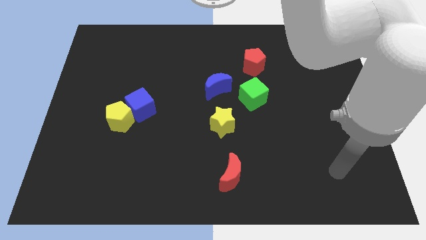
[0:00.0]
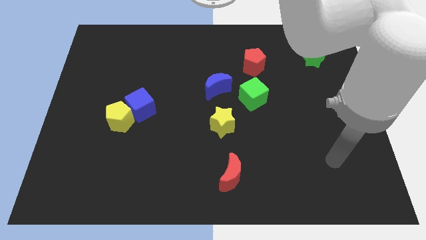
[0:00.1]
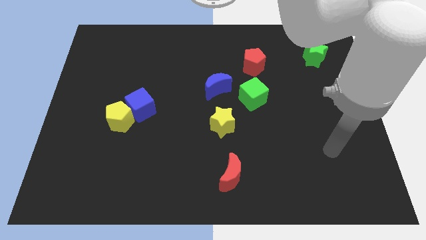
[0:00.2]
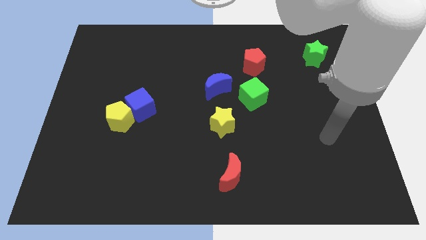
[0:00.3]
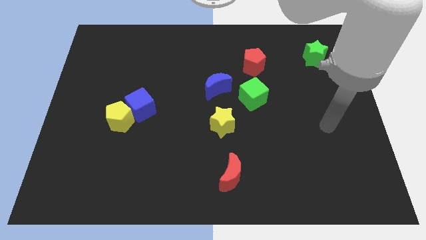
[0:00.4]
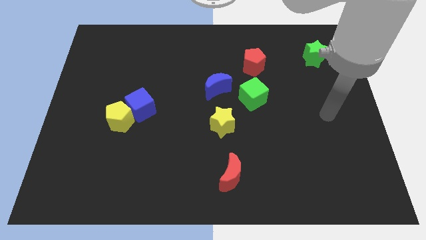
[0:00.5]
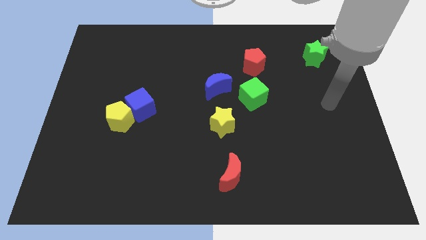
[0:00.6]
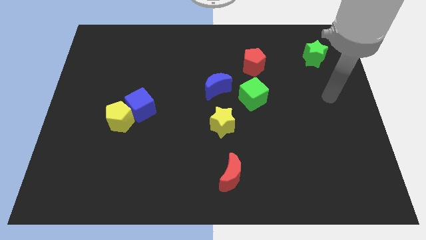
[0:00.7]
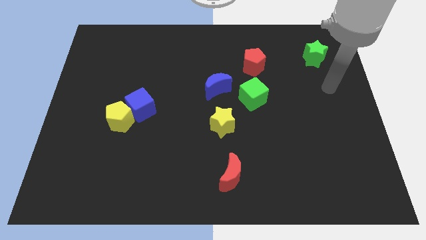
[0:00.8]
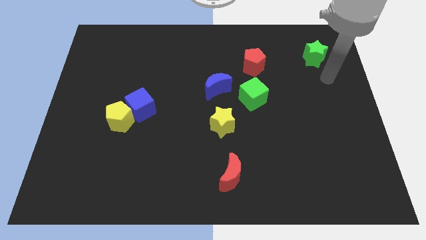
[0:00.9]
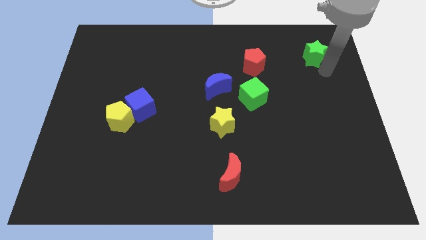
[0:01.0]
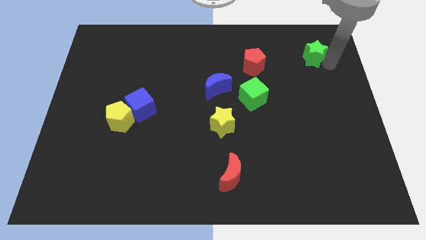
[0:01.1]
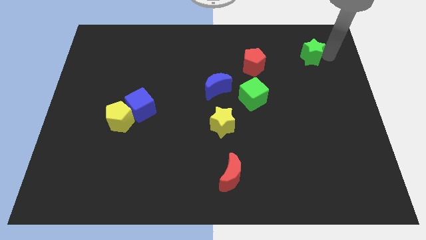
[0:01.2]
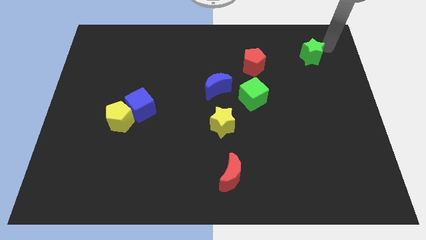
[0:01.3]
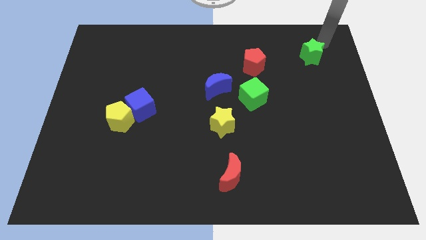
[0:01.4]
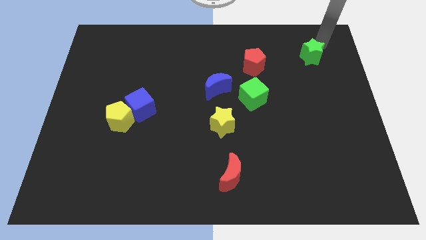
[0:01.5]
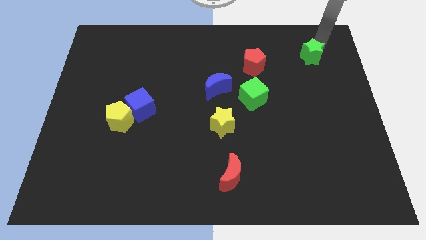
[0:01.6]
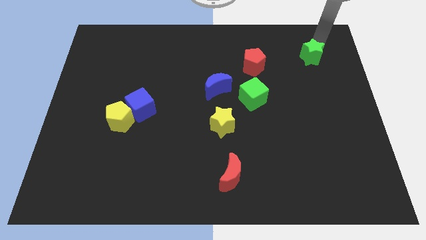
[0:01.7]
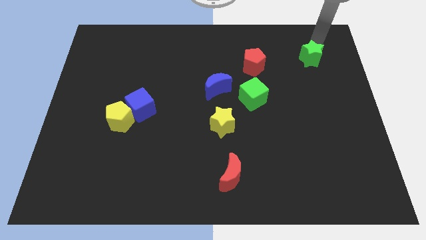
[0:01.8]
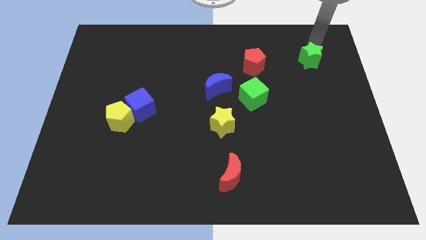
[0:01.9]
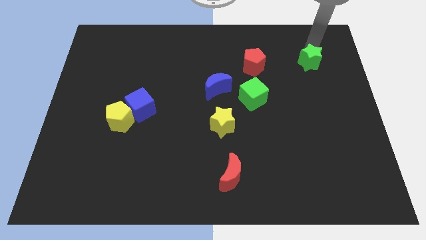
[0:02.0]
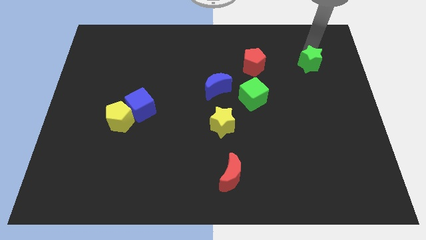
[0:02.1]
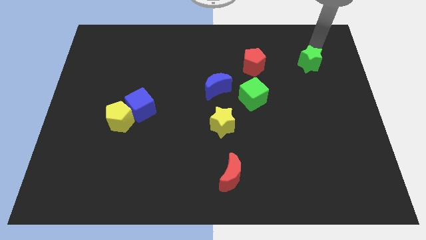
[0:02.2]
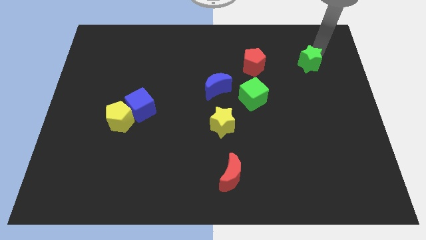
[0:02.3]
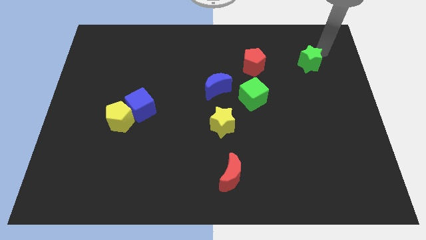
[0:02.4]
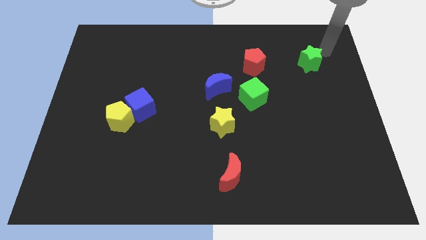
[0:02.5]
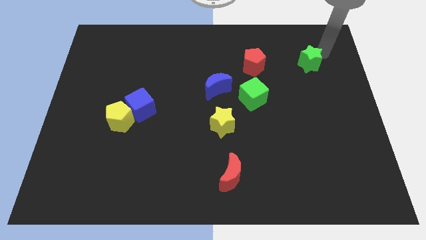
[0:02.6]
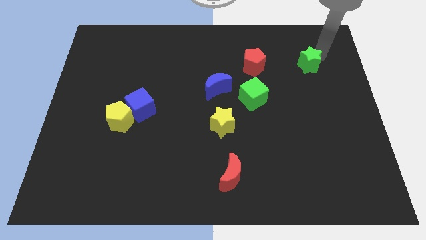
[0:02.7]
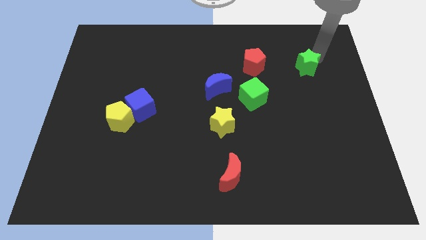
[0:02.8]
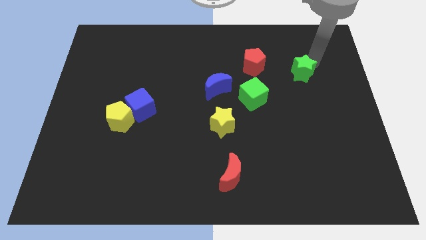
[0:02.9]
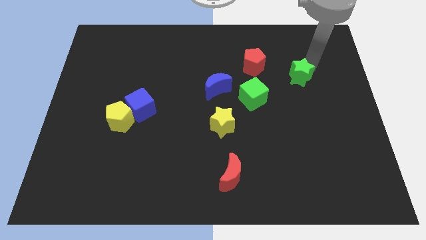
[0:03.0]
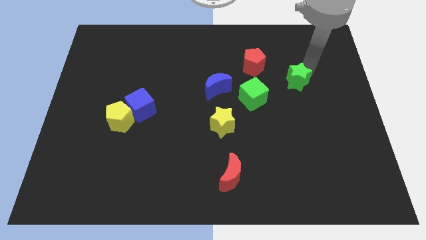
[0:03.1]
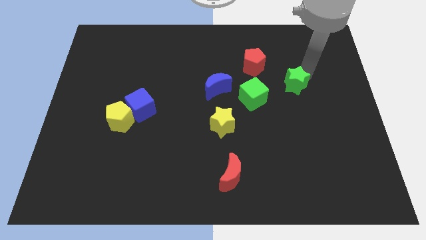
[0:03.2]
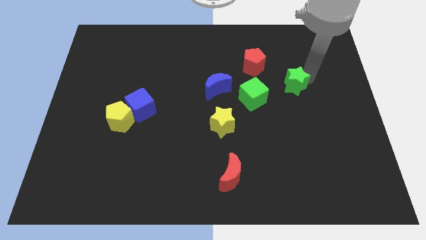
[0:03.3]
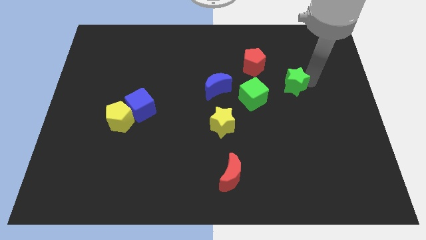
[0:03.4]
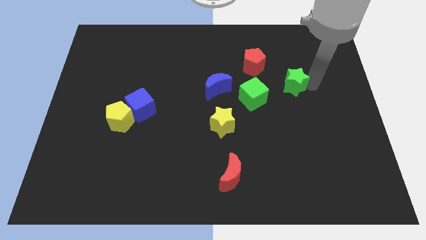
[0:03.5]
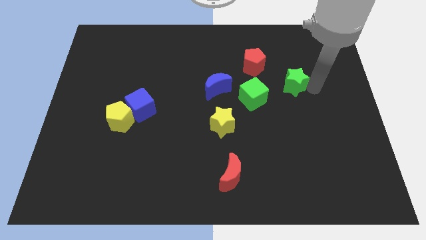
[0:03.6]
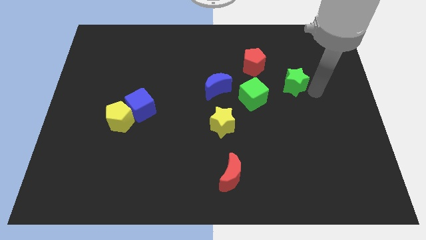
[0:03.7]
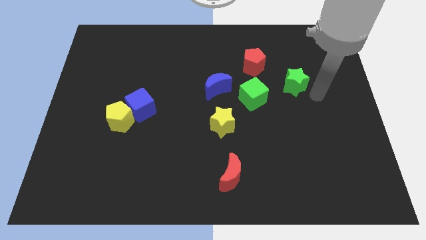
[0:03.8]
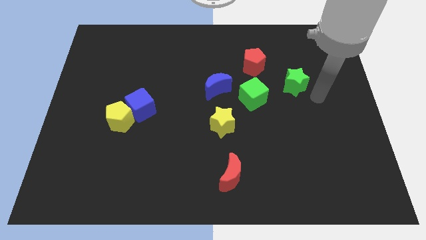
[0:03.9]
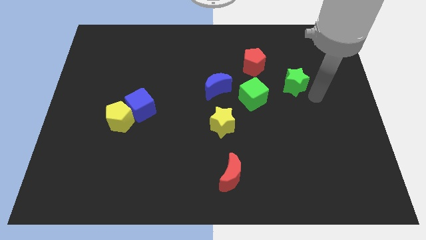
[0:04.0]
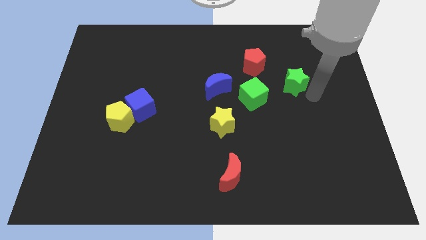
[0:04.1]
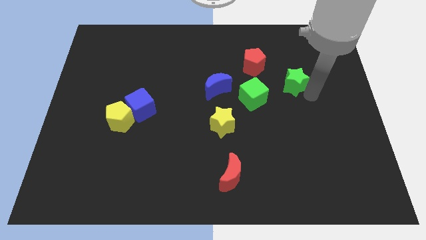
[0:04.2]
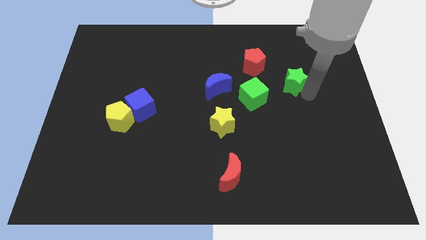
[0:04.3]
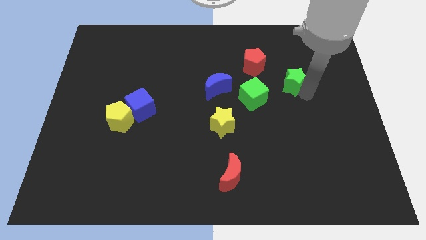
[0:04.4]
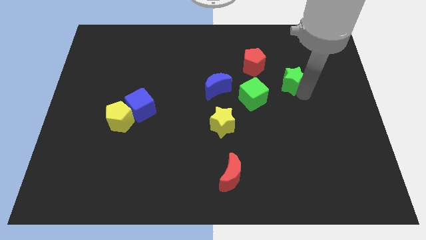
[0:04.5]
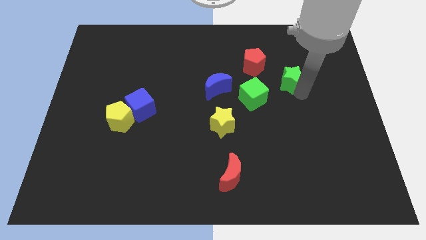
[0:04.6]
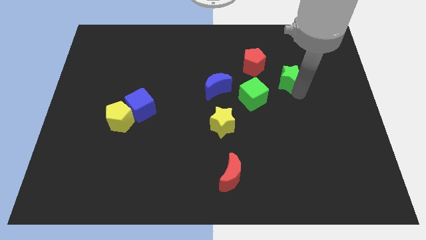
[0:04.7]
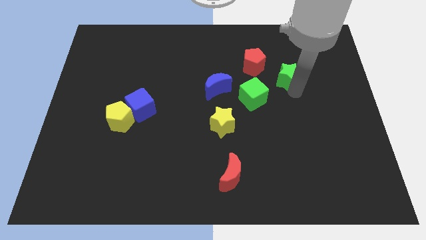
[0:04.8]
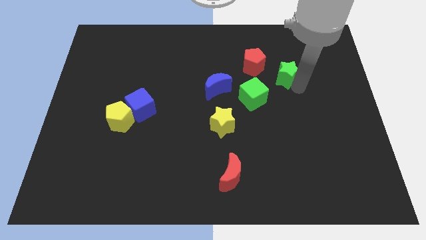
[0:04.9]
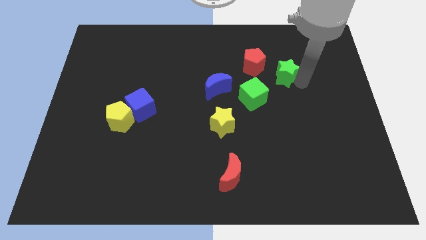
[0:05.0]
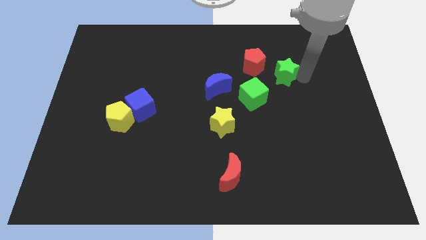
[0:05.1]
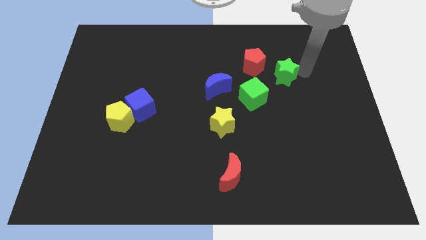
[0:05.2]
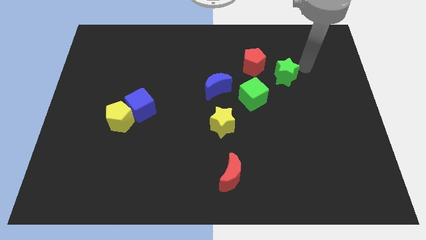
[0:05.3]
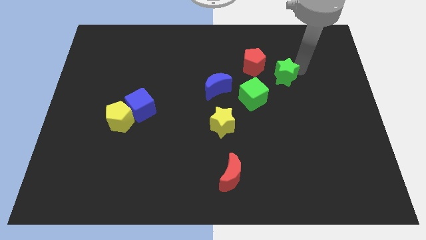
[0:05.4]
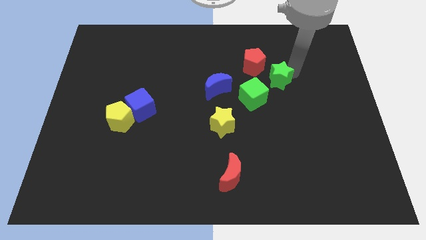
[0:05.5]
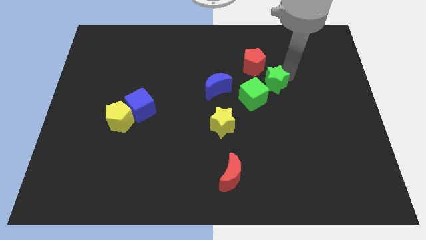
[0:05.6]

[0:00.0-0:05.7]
move the green star right of the blue moon
